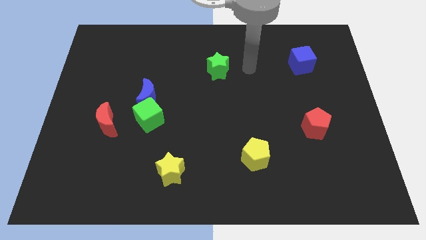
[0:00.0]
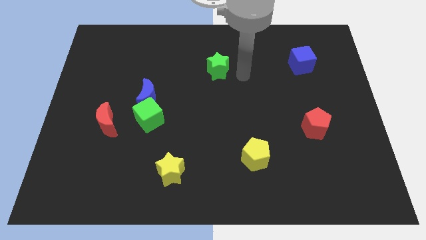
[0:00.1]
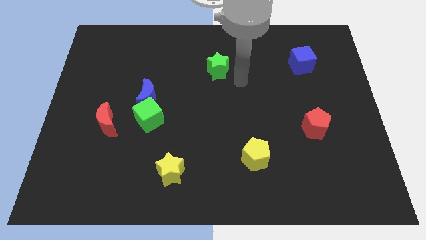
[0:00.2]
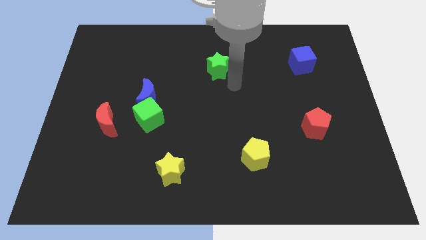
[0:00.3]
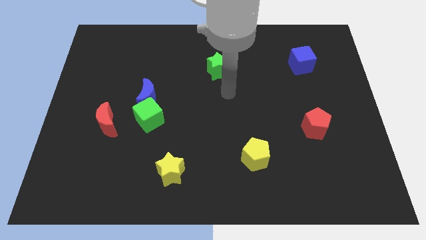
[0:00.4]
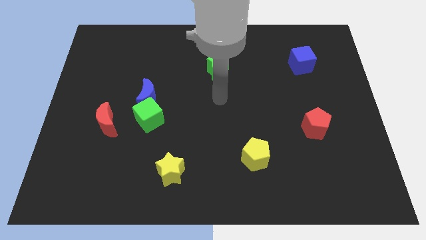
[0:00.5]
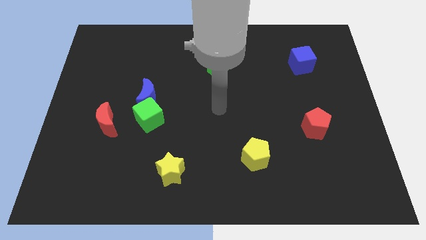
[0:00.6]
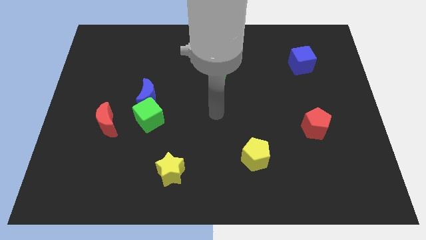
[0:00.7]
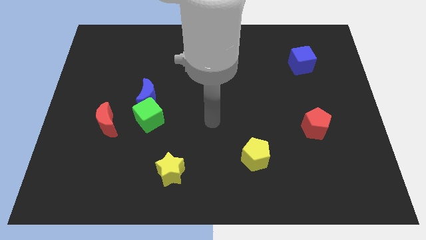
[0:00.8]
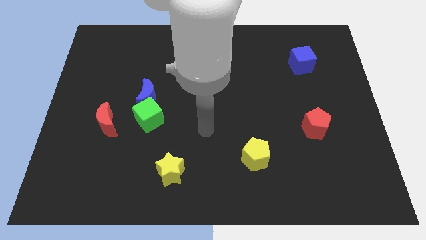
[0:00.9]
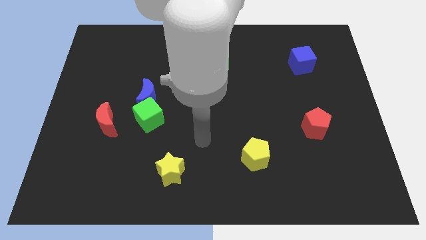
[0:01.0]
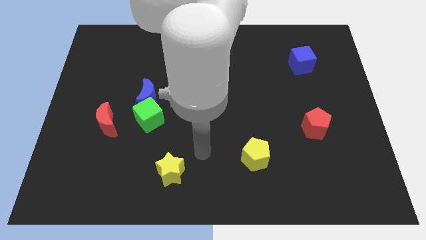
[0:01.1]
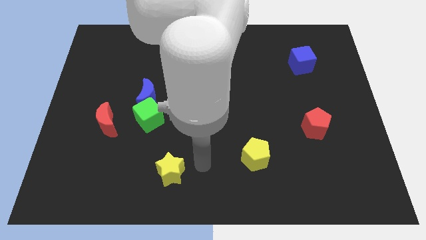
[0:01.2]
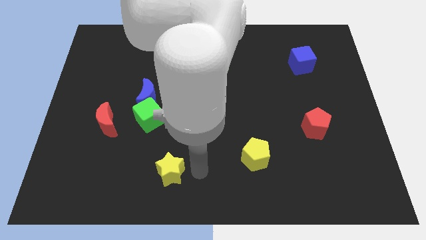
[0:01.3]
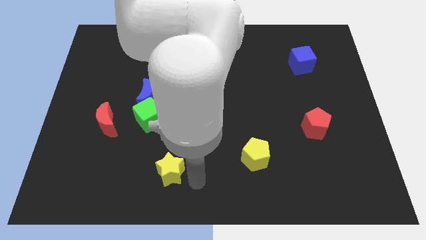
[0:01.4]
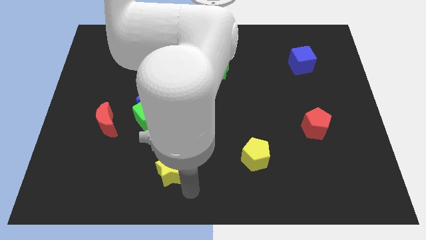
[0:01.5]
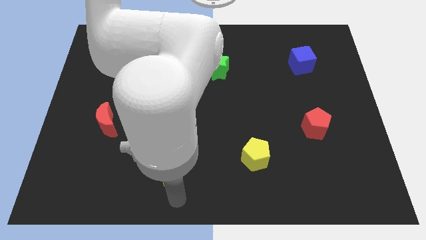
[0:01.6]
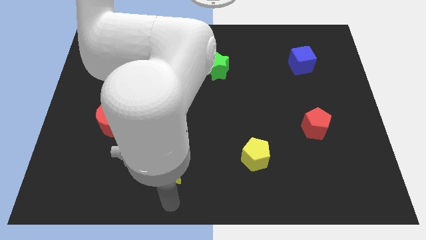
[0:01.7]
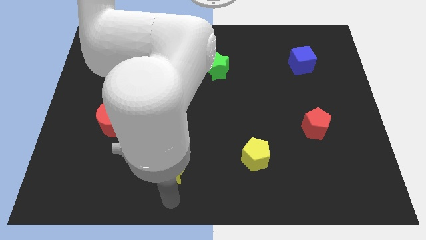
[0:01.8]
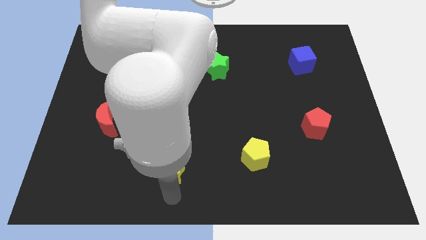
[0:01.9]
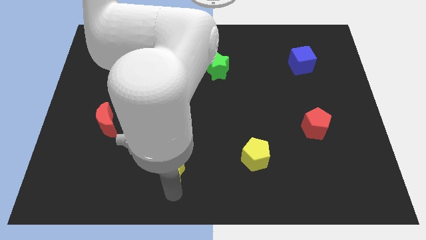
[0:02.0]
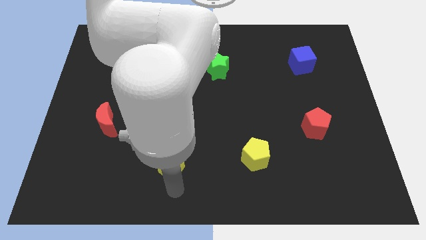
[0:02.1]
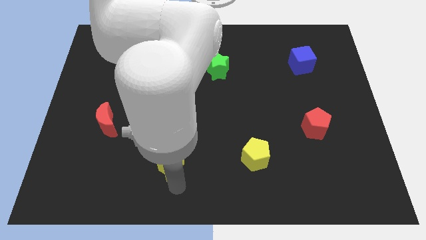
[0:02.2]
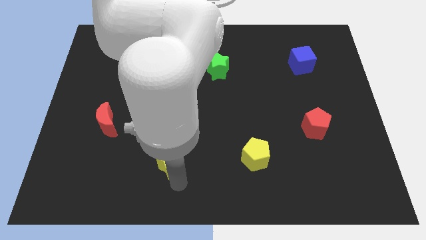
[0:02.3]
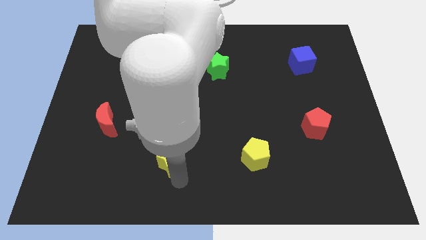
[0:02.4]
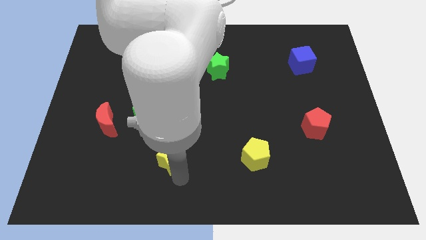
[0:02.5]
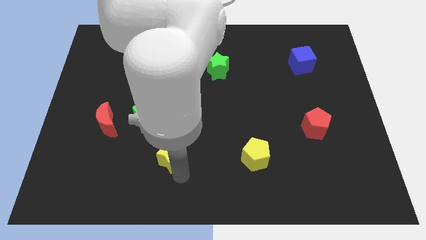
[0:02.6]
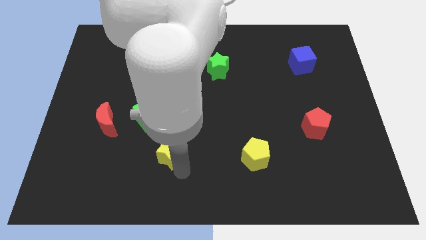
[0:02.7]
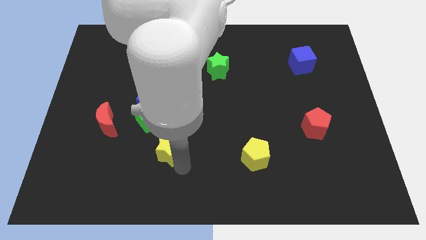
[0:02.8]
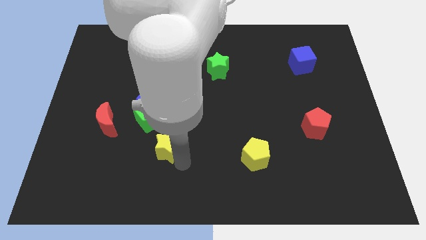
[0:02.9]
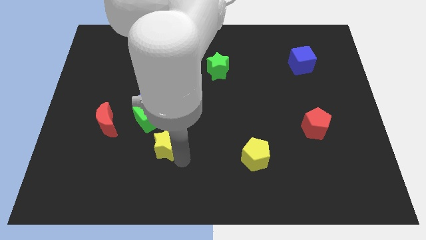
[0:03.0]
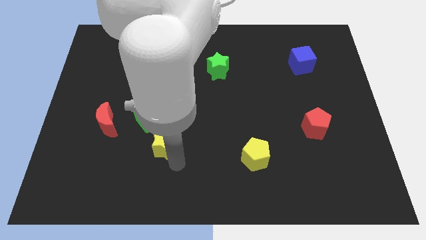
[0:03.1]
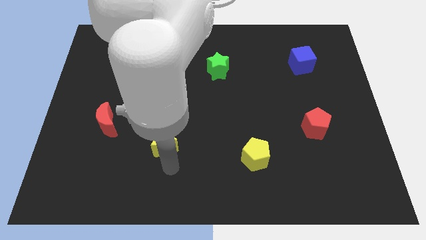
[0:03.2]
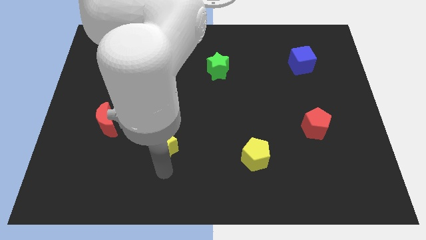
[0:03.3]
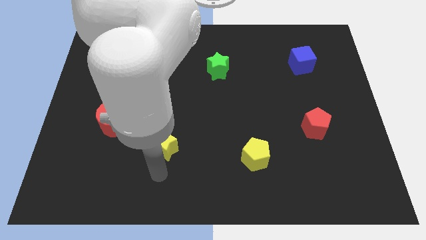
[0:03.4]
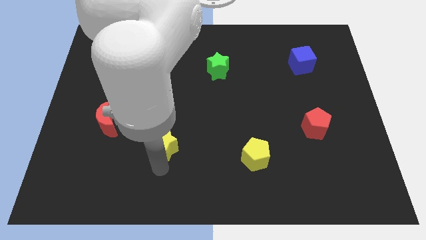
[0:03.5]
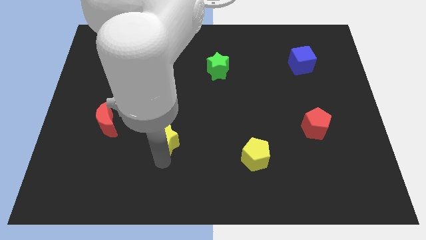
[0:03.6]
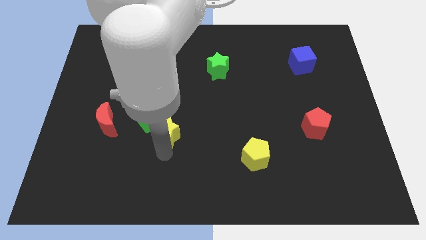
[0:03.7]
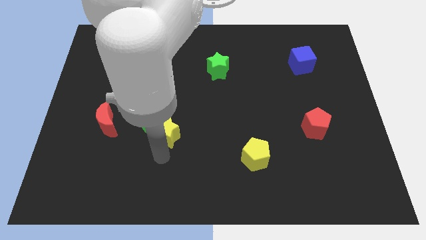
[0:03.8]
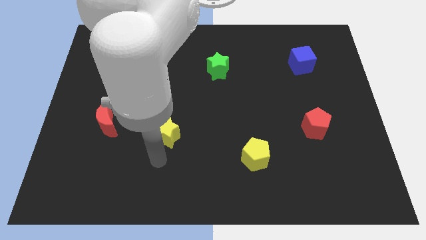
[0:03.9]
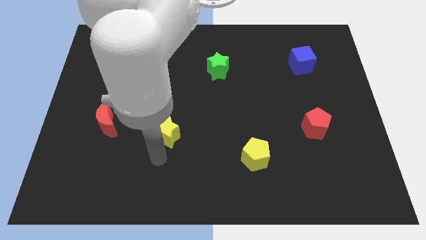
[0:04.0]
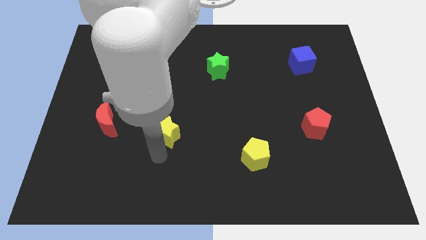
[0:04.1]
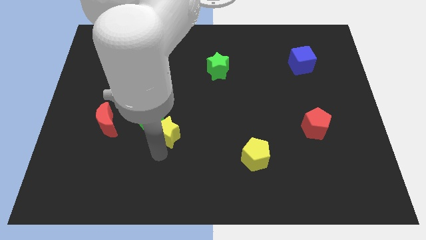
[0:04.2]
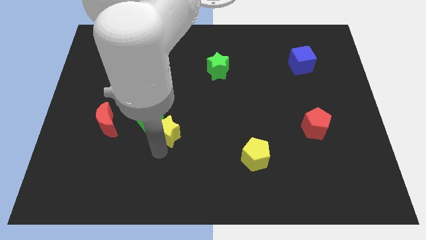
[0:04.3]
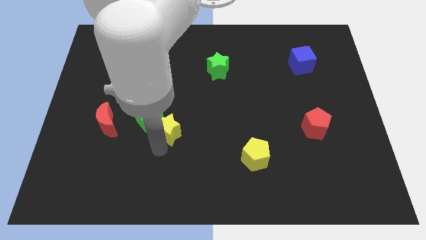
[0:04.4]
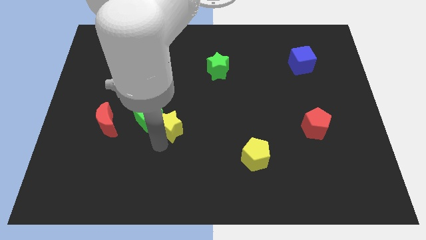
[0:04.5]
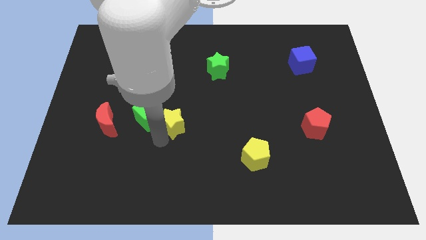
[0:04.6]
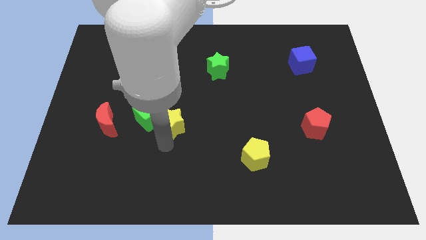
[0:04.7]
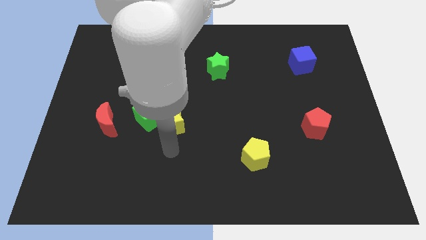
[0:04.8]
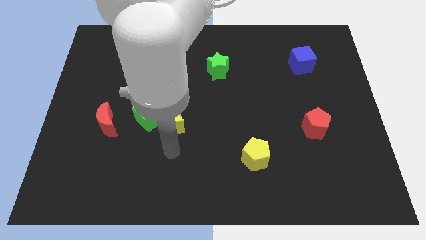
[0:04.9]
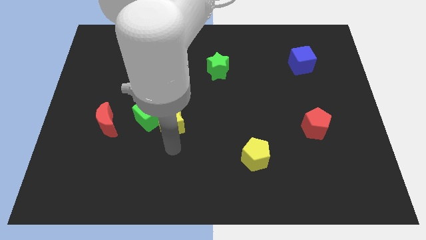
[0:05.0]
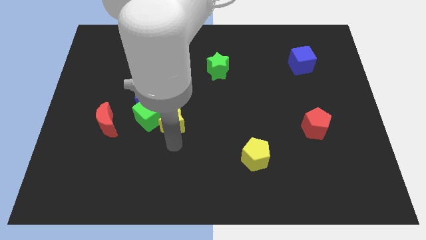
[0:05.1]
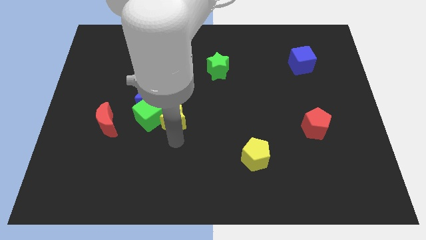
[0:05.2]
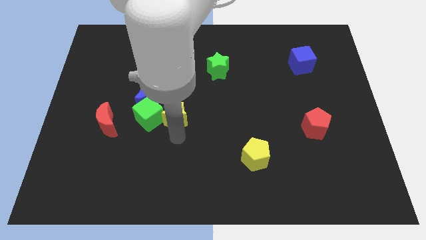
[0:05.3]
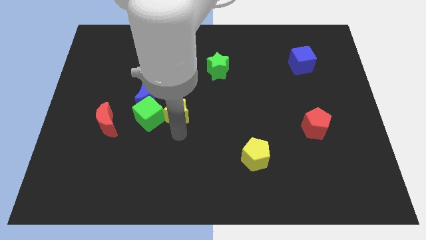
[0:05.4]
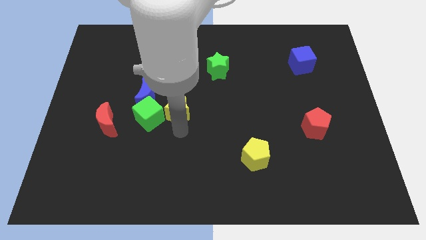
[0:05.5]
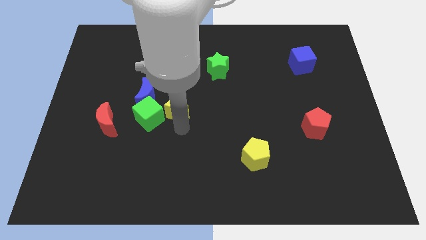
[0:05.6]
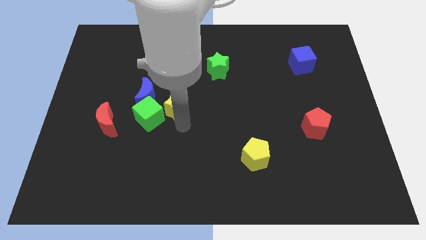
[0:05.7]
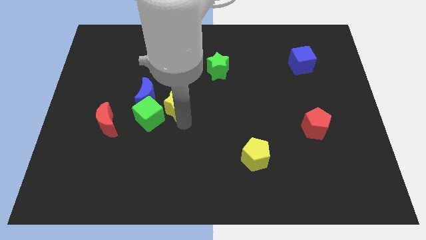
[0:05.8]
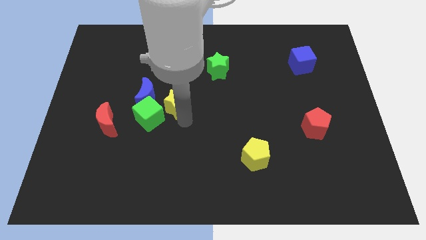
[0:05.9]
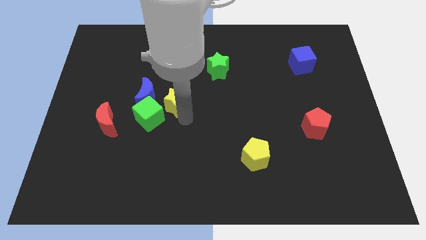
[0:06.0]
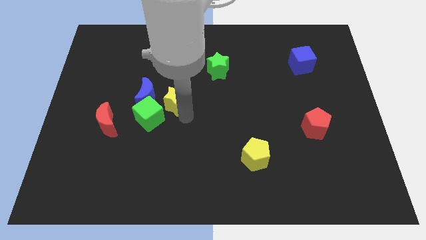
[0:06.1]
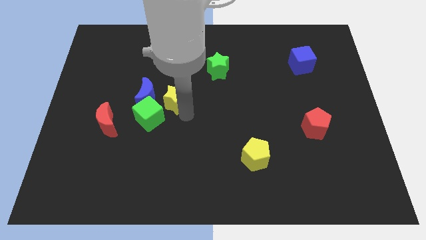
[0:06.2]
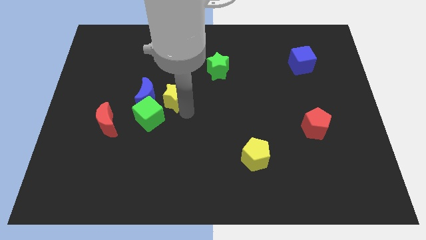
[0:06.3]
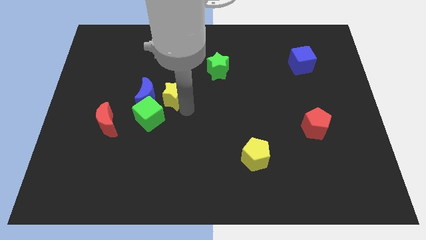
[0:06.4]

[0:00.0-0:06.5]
move the yellow star up

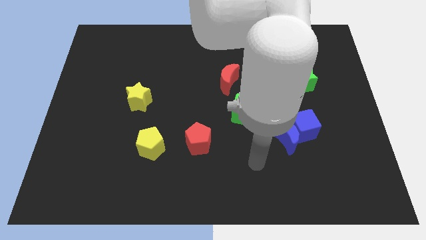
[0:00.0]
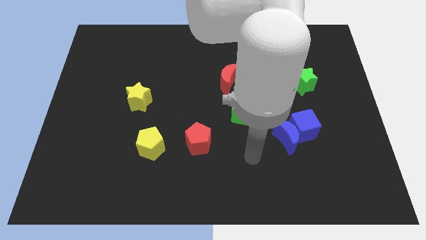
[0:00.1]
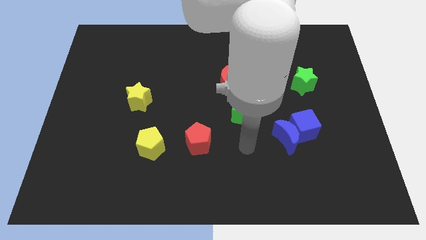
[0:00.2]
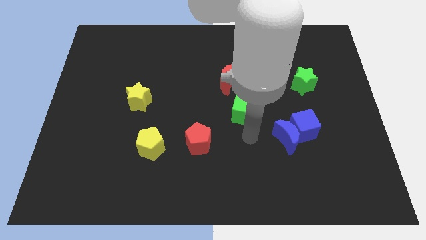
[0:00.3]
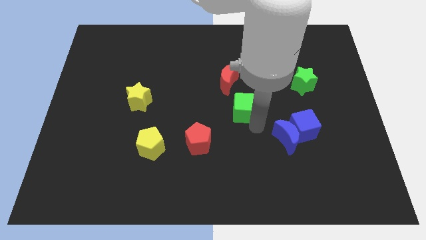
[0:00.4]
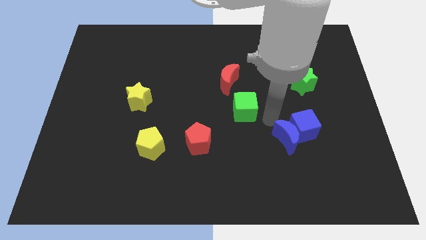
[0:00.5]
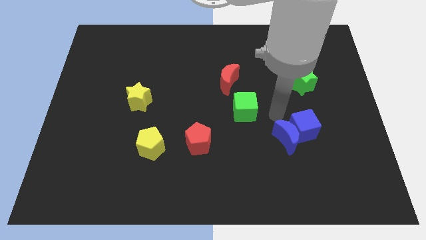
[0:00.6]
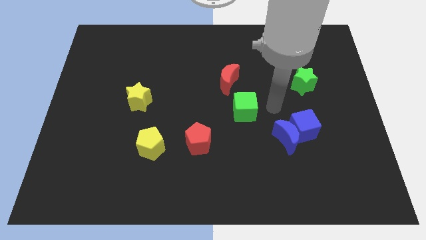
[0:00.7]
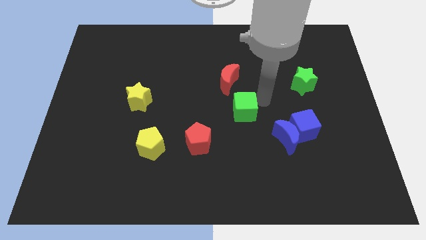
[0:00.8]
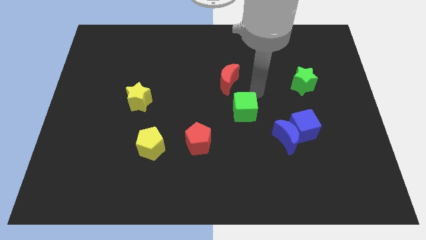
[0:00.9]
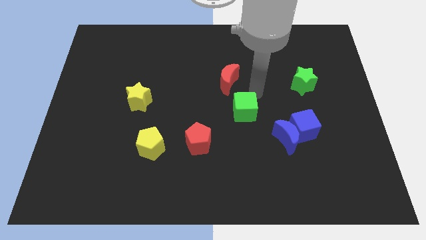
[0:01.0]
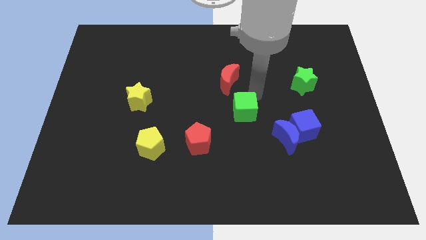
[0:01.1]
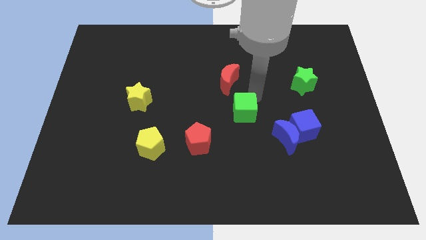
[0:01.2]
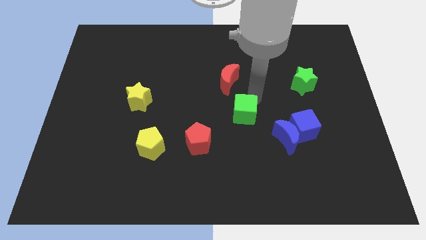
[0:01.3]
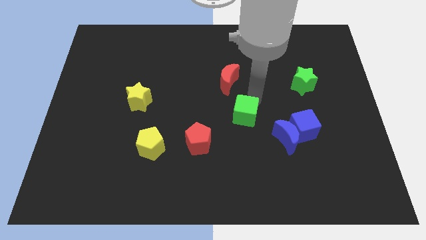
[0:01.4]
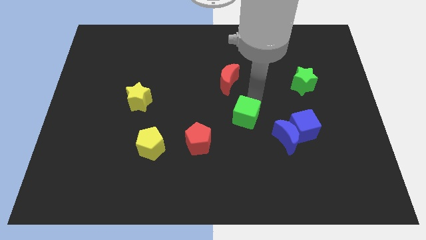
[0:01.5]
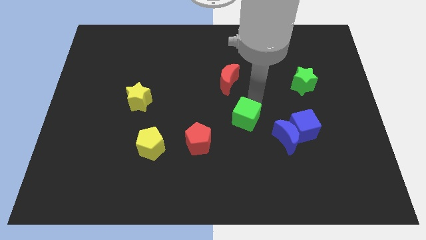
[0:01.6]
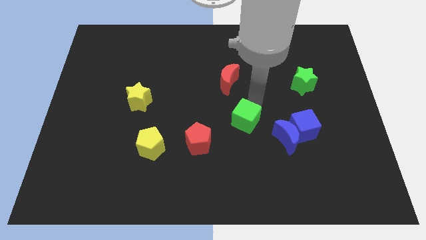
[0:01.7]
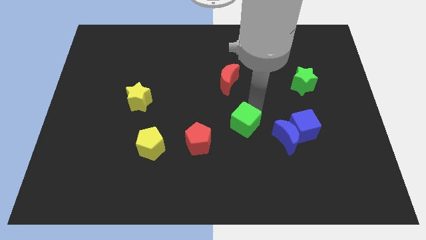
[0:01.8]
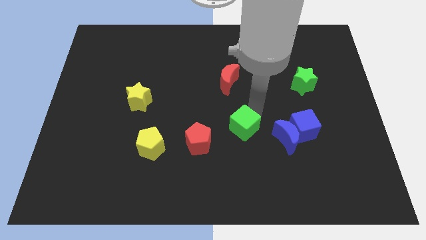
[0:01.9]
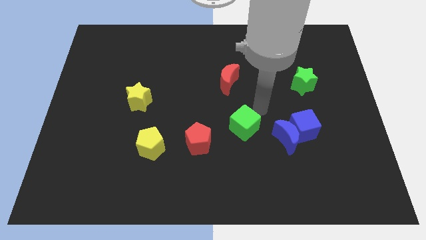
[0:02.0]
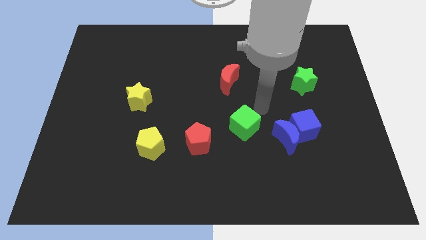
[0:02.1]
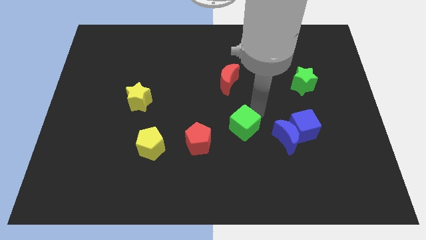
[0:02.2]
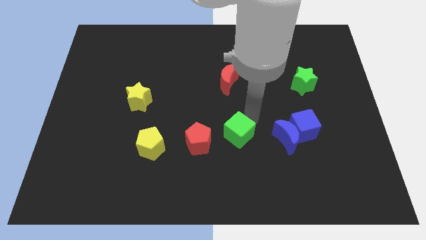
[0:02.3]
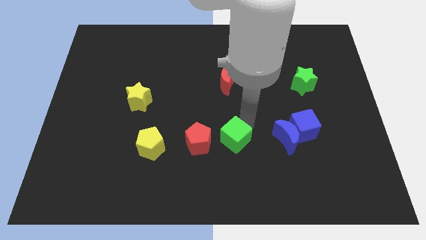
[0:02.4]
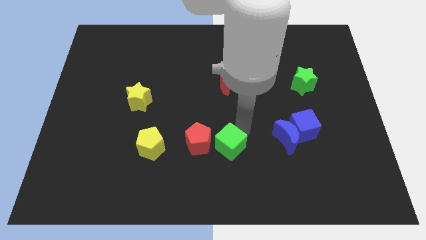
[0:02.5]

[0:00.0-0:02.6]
slightly slide the green cube down and to the left
